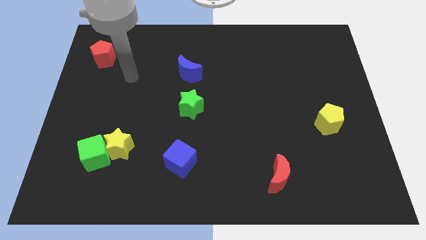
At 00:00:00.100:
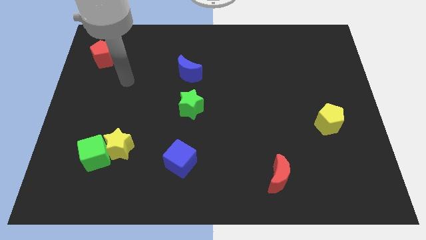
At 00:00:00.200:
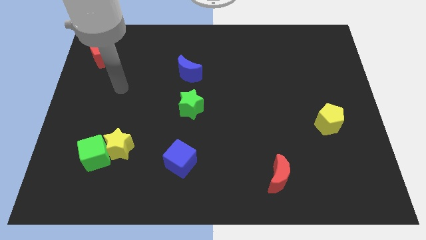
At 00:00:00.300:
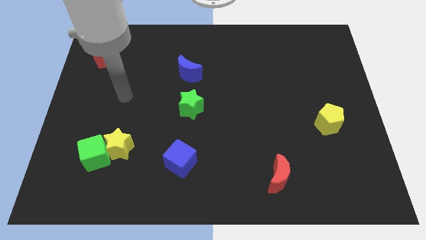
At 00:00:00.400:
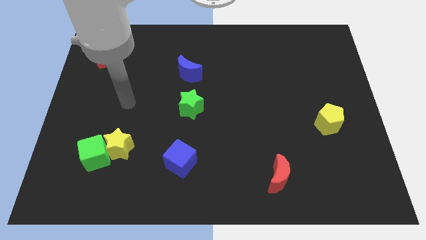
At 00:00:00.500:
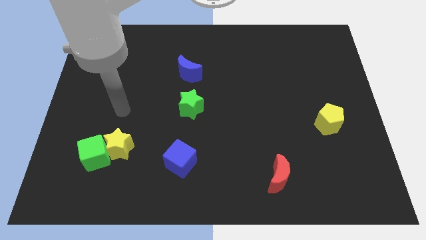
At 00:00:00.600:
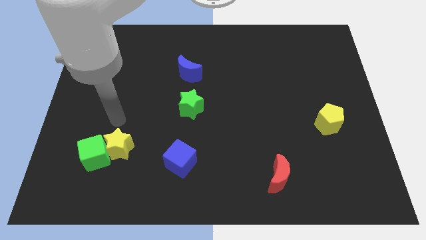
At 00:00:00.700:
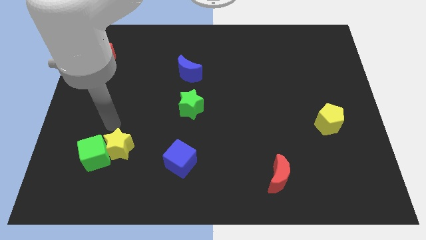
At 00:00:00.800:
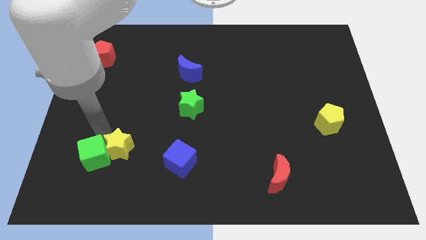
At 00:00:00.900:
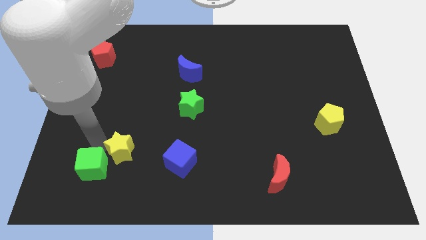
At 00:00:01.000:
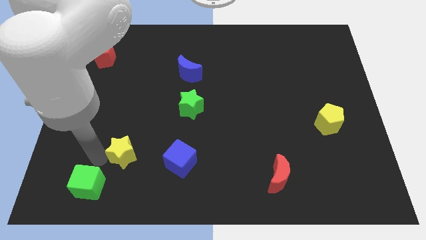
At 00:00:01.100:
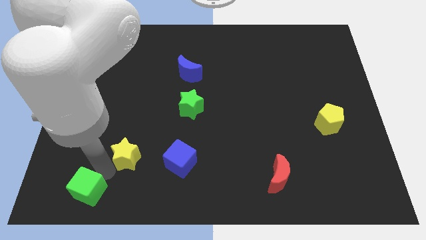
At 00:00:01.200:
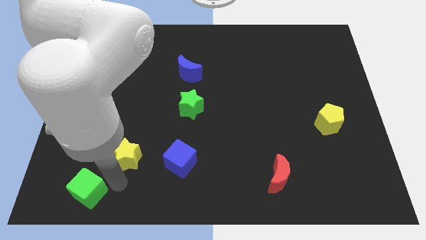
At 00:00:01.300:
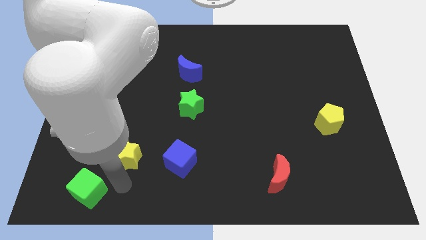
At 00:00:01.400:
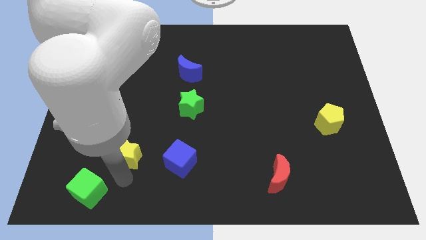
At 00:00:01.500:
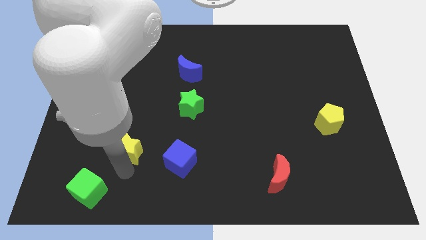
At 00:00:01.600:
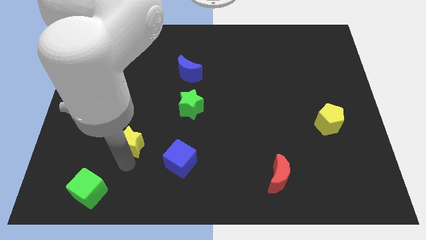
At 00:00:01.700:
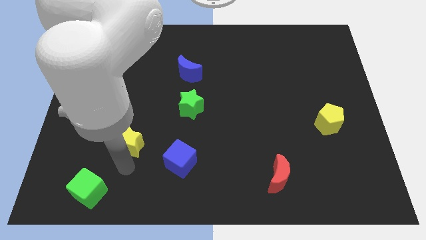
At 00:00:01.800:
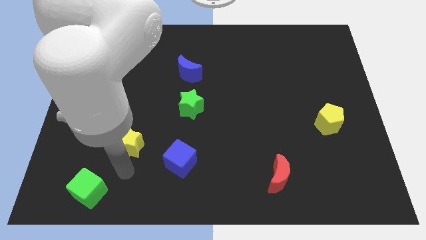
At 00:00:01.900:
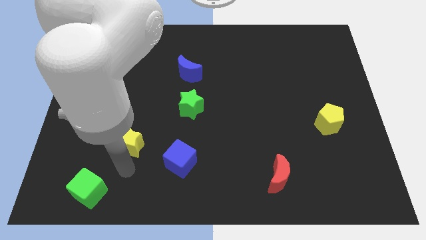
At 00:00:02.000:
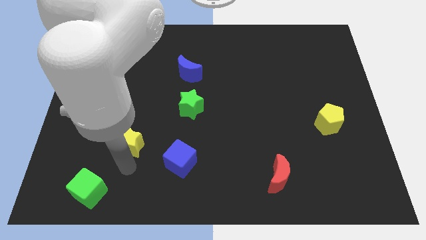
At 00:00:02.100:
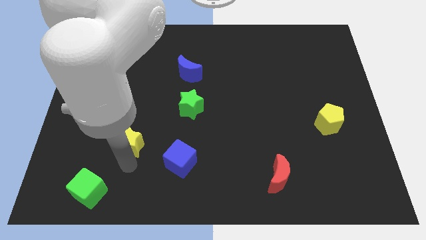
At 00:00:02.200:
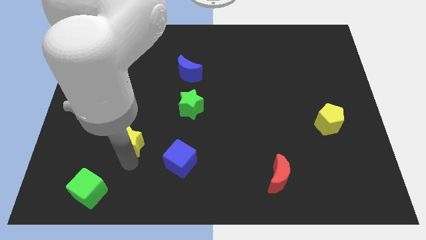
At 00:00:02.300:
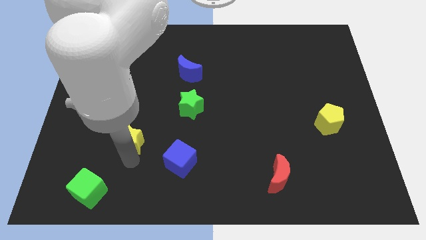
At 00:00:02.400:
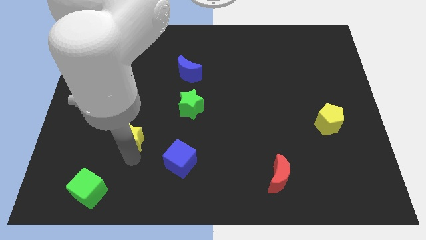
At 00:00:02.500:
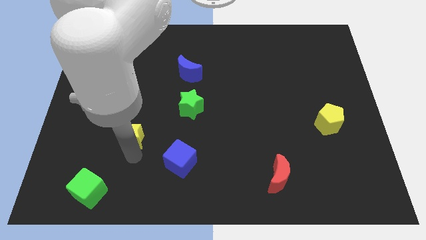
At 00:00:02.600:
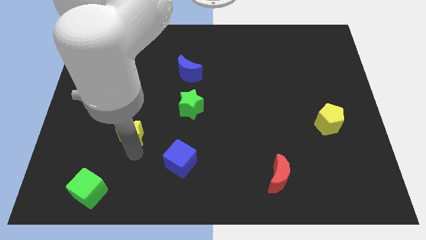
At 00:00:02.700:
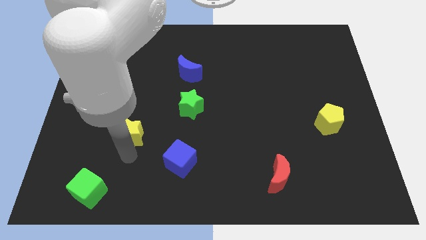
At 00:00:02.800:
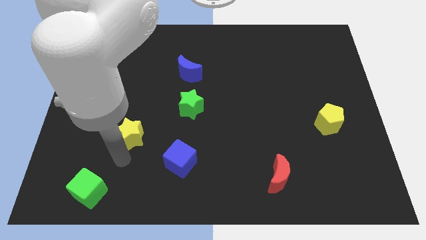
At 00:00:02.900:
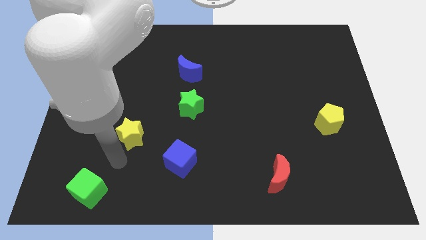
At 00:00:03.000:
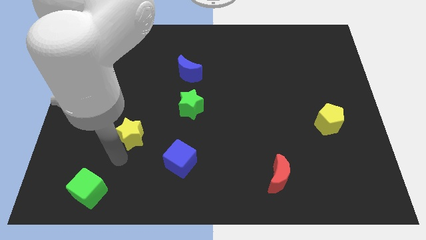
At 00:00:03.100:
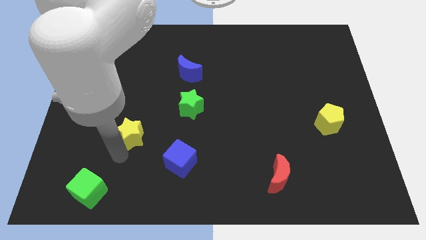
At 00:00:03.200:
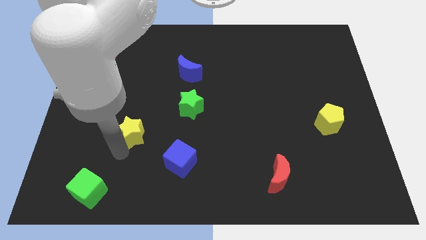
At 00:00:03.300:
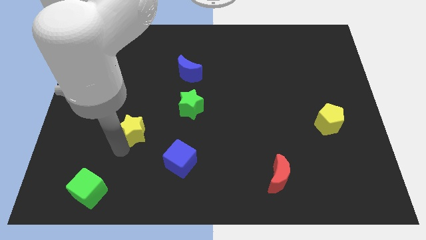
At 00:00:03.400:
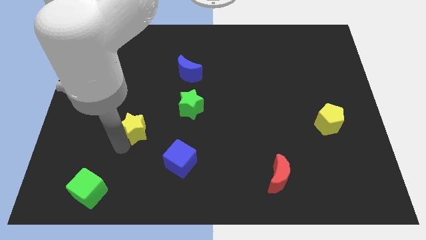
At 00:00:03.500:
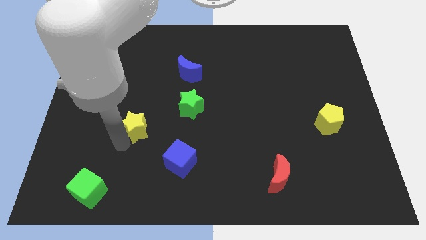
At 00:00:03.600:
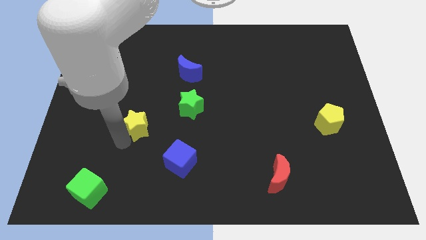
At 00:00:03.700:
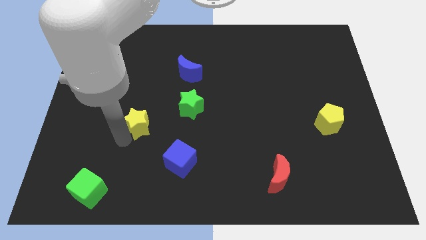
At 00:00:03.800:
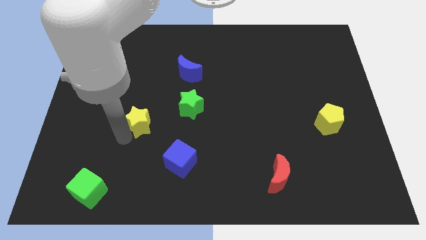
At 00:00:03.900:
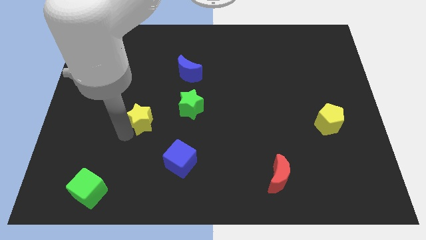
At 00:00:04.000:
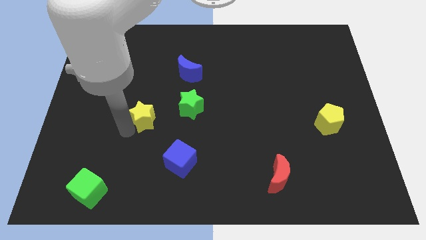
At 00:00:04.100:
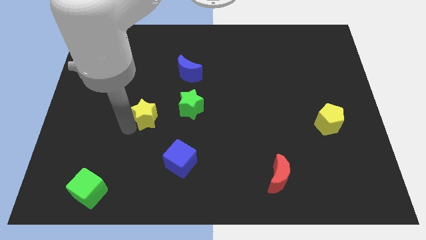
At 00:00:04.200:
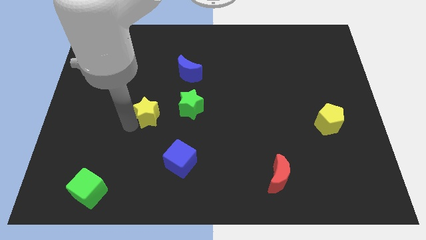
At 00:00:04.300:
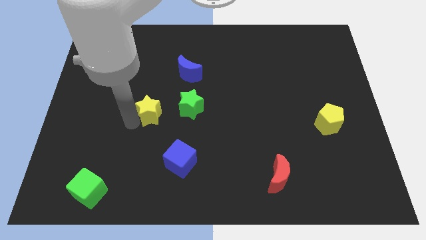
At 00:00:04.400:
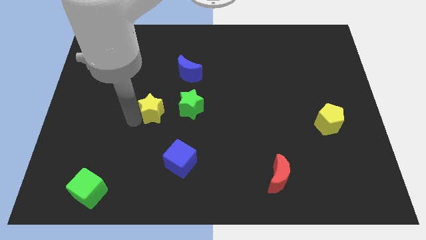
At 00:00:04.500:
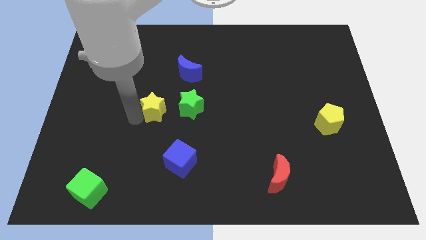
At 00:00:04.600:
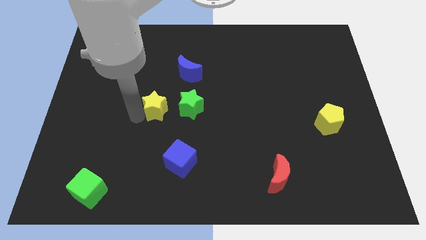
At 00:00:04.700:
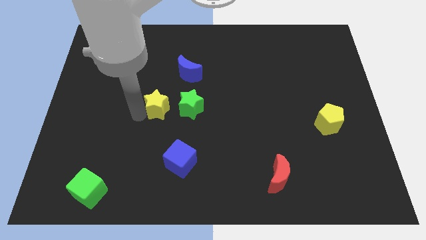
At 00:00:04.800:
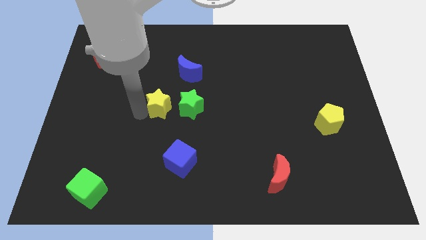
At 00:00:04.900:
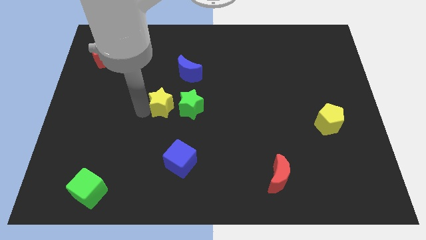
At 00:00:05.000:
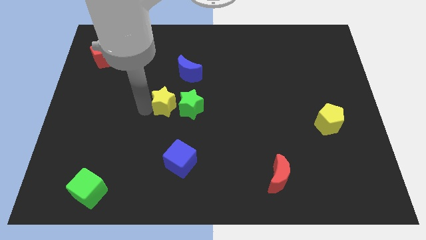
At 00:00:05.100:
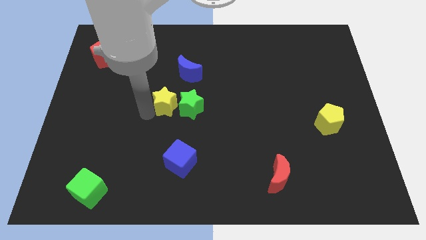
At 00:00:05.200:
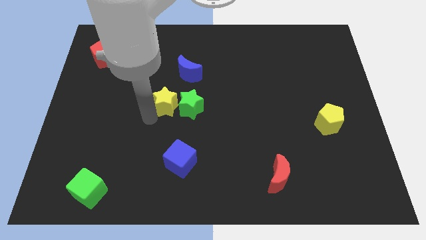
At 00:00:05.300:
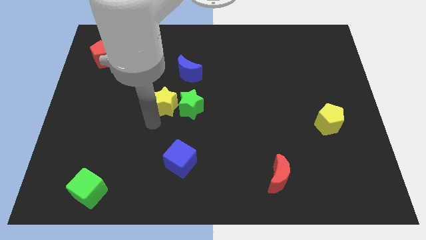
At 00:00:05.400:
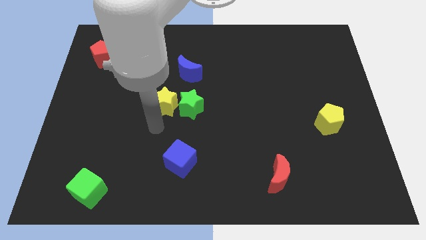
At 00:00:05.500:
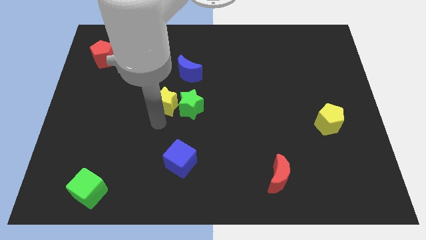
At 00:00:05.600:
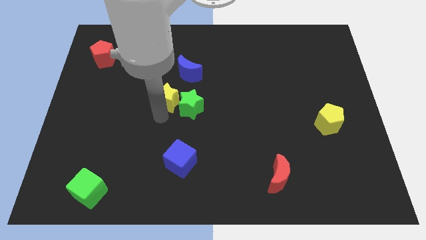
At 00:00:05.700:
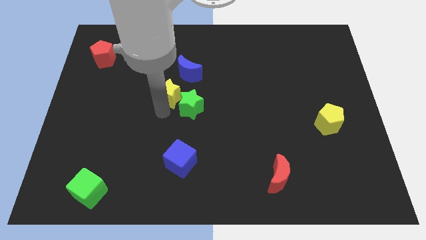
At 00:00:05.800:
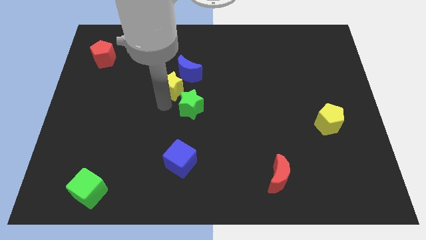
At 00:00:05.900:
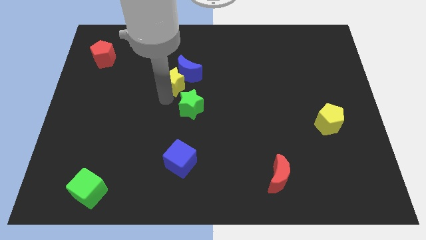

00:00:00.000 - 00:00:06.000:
move the yellow star towards the blue moon
